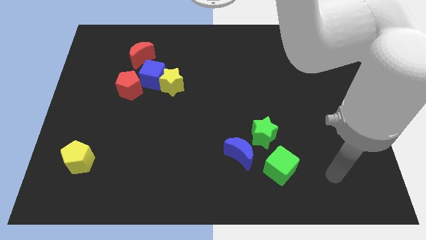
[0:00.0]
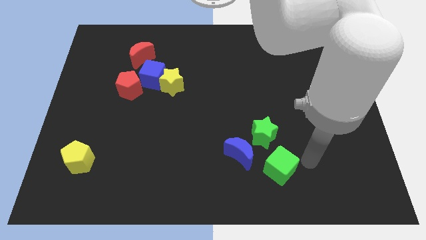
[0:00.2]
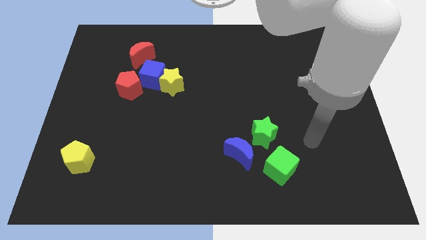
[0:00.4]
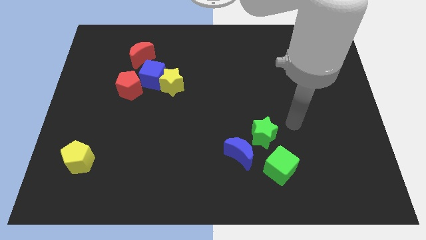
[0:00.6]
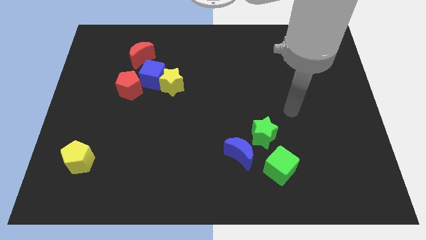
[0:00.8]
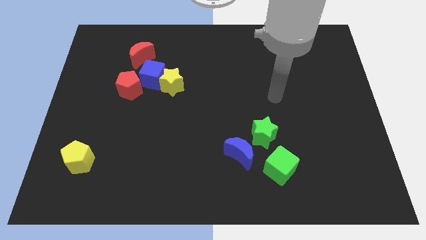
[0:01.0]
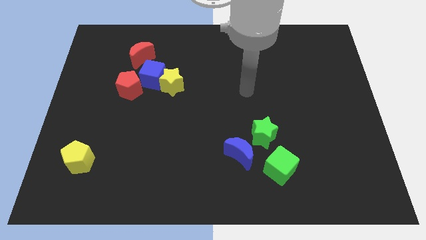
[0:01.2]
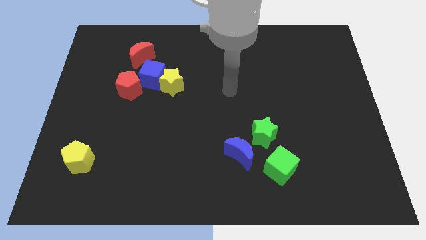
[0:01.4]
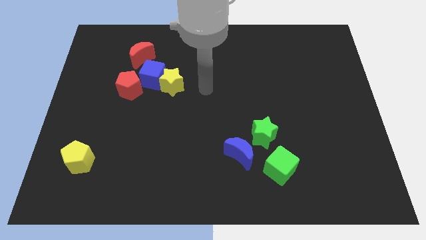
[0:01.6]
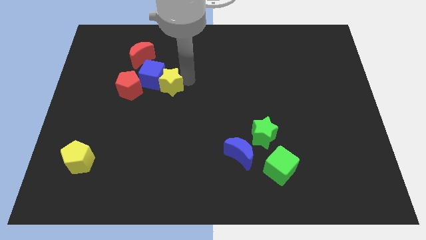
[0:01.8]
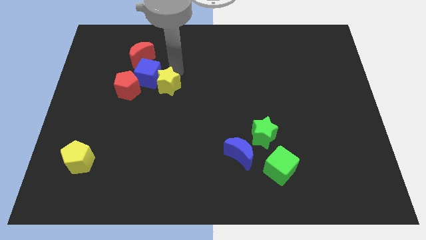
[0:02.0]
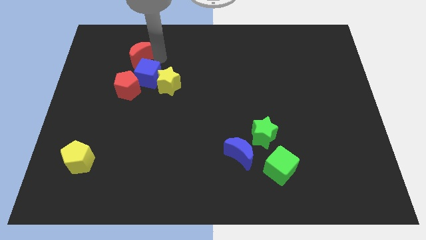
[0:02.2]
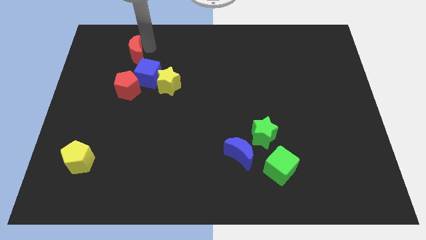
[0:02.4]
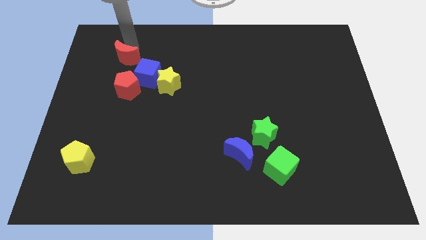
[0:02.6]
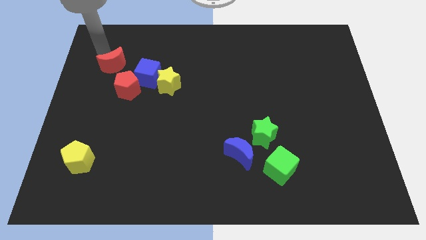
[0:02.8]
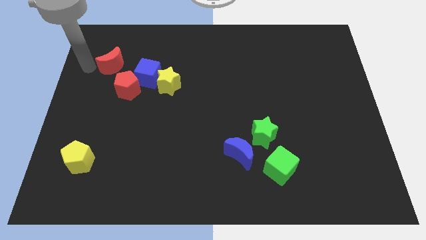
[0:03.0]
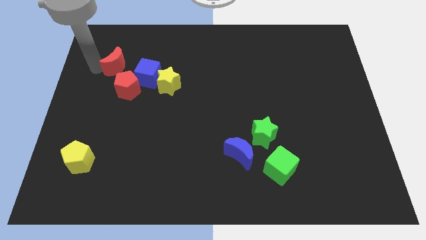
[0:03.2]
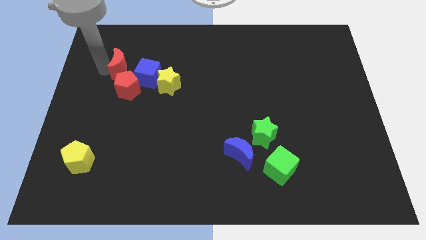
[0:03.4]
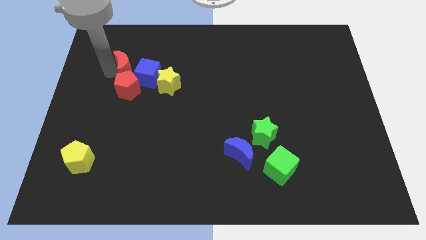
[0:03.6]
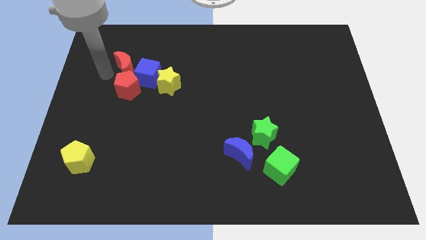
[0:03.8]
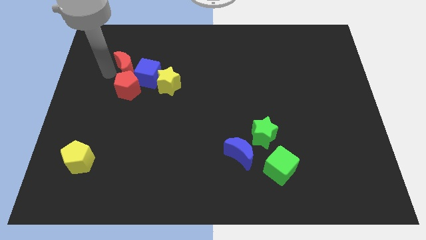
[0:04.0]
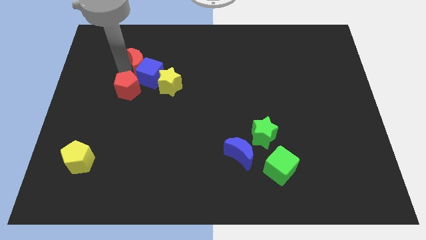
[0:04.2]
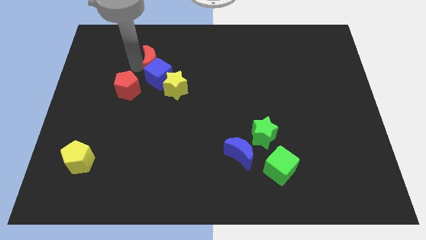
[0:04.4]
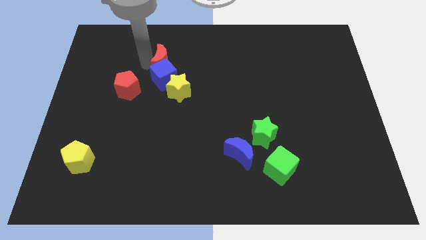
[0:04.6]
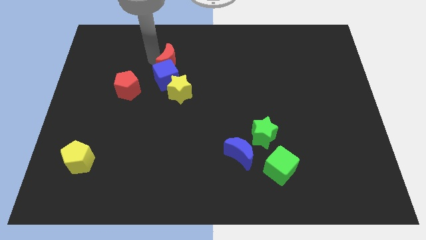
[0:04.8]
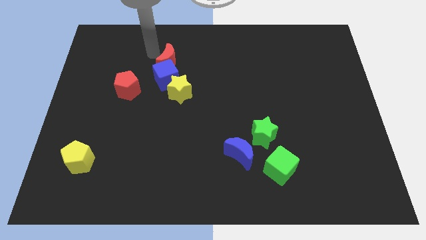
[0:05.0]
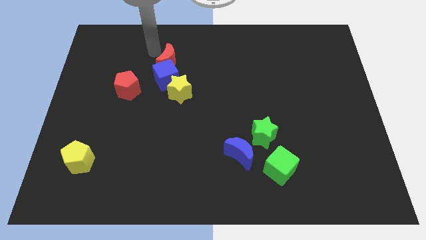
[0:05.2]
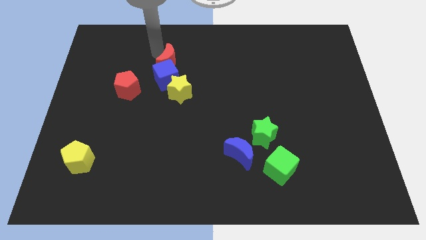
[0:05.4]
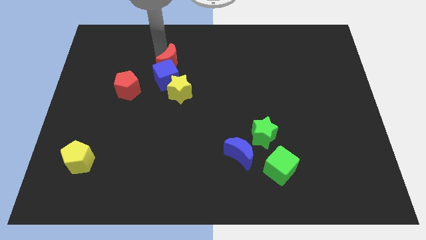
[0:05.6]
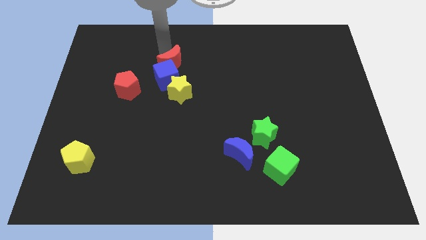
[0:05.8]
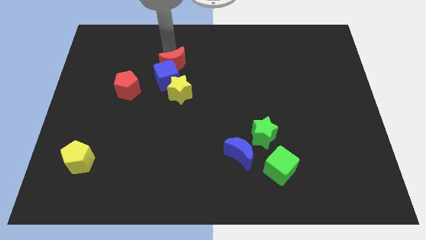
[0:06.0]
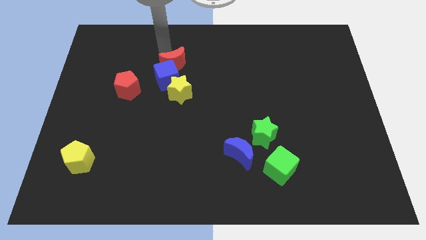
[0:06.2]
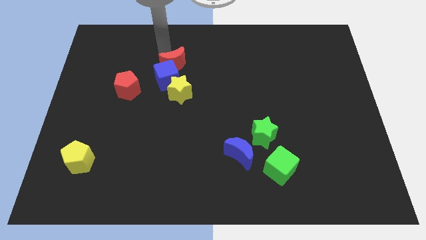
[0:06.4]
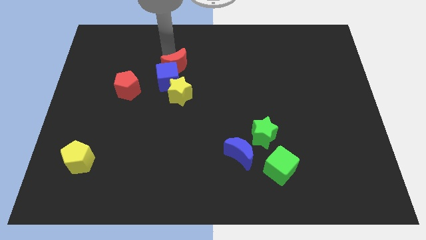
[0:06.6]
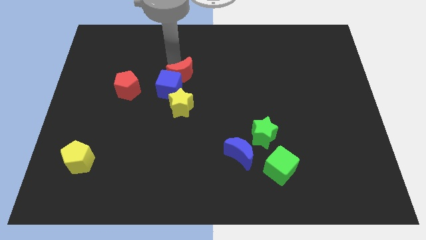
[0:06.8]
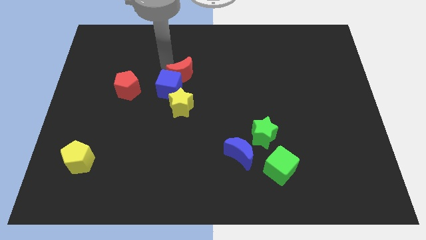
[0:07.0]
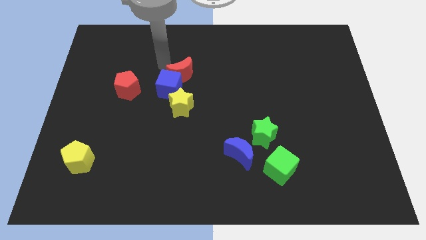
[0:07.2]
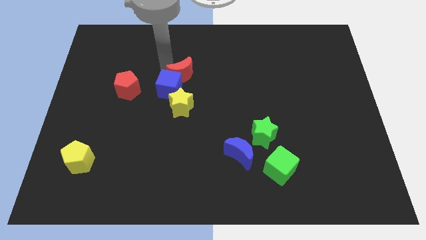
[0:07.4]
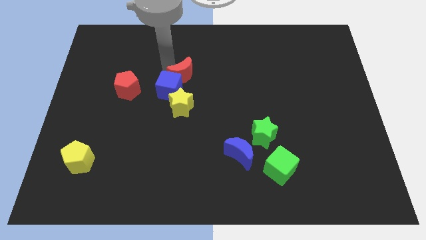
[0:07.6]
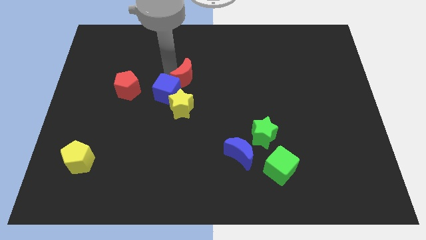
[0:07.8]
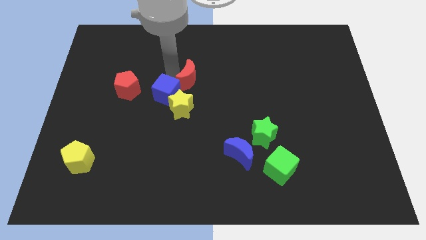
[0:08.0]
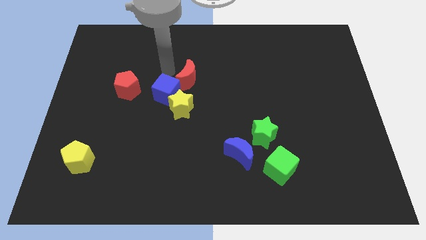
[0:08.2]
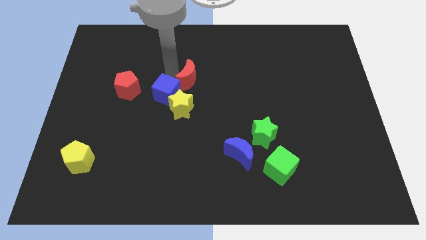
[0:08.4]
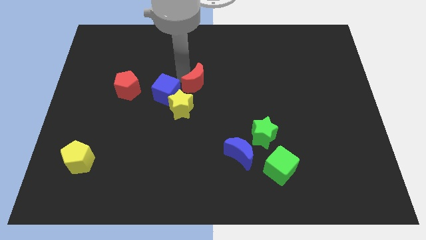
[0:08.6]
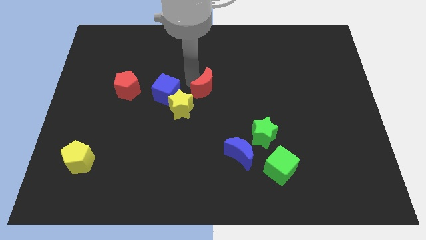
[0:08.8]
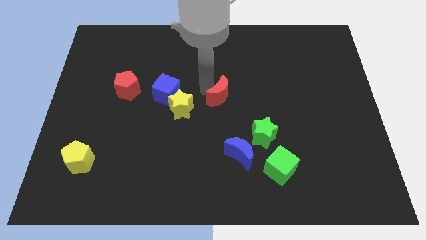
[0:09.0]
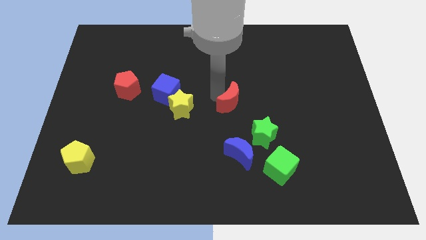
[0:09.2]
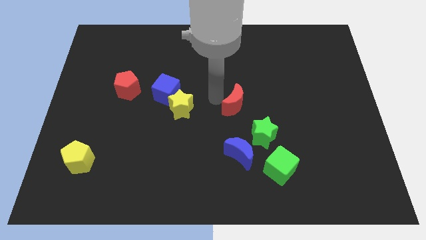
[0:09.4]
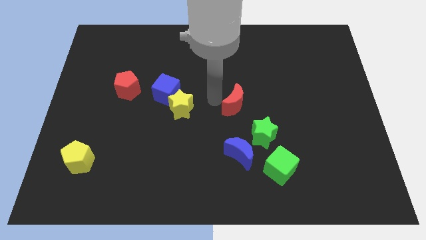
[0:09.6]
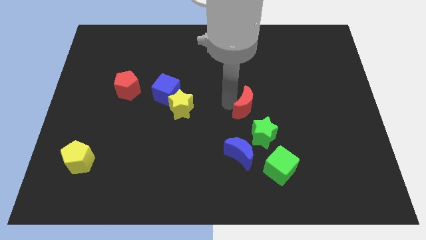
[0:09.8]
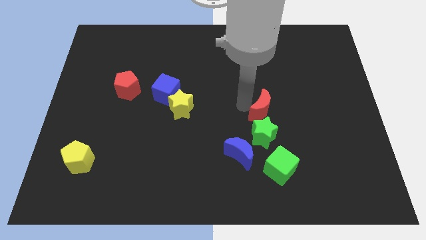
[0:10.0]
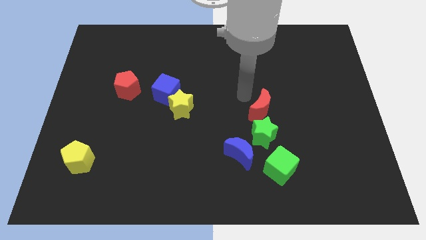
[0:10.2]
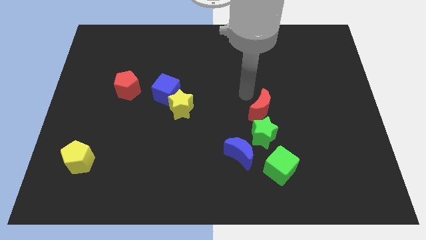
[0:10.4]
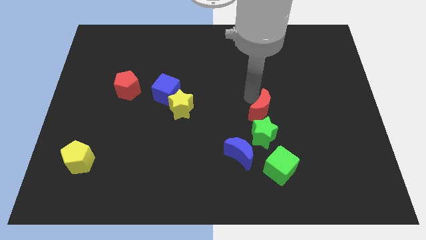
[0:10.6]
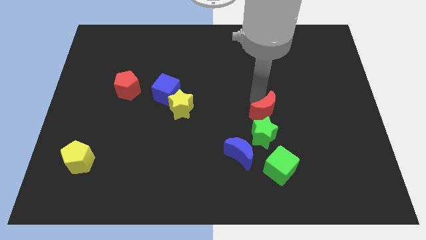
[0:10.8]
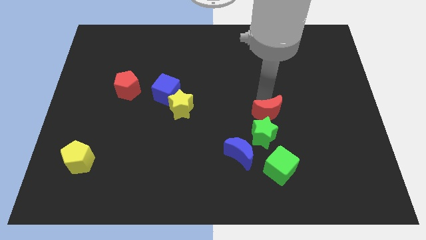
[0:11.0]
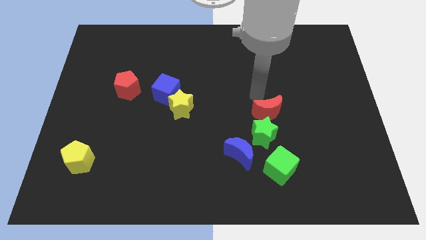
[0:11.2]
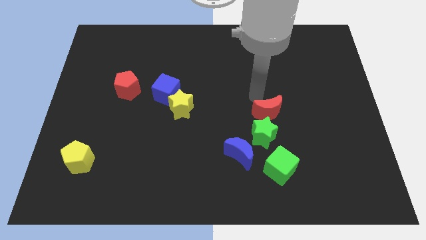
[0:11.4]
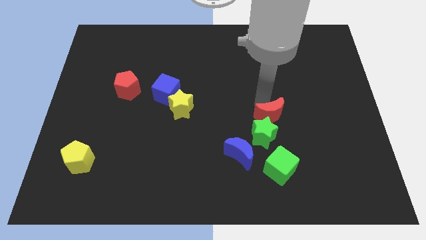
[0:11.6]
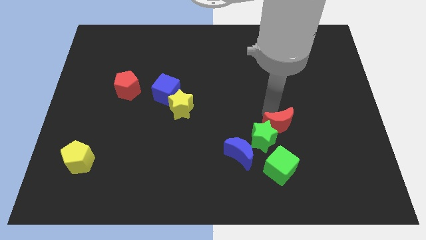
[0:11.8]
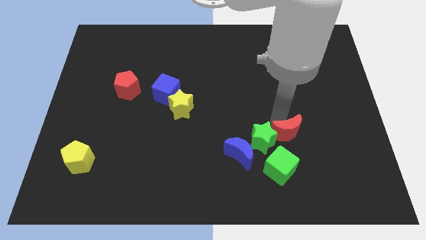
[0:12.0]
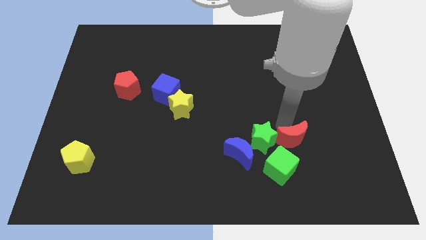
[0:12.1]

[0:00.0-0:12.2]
move the red moon to the bottom right side of the green star
